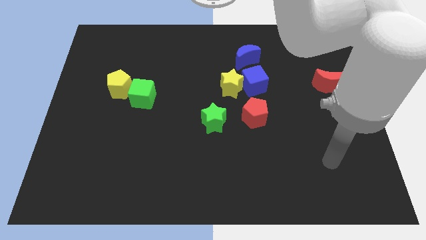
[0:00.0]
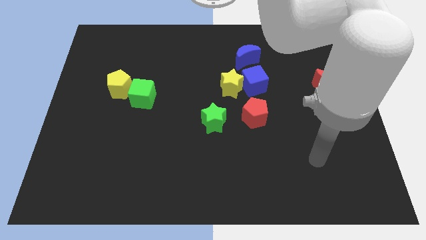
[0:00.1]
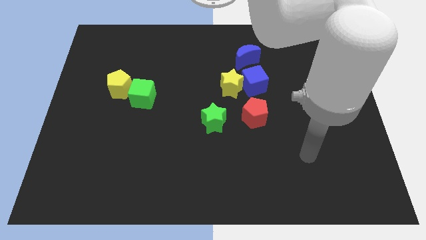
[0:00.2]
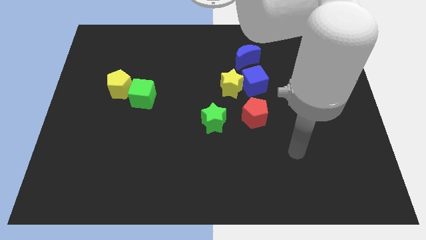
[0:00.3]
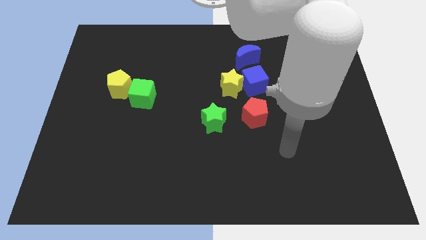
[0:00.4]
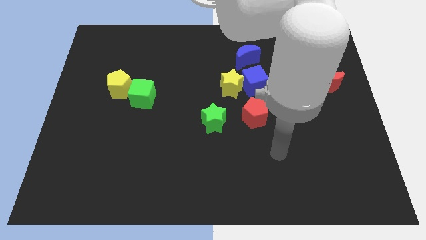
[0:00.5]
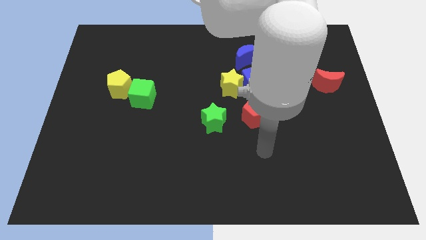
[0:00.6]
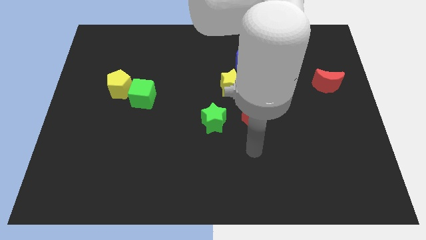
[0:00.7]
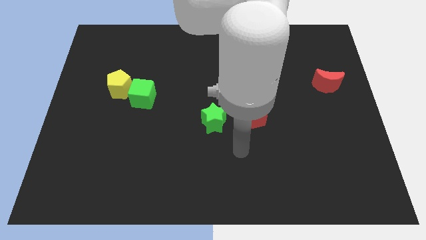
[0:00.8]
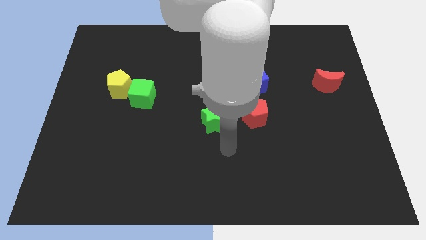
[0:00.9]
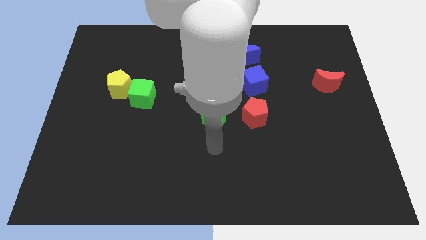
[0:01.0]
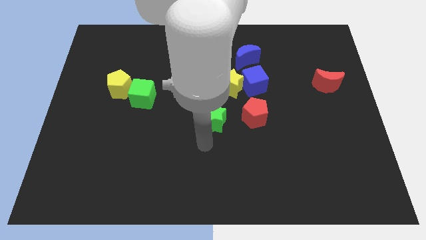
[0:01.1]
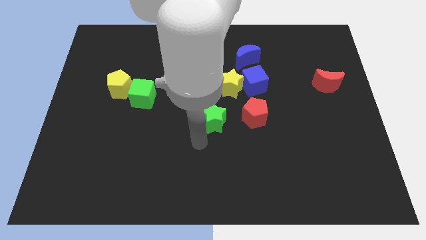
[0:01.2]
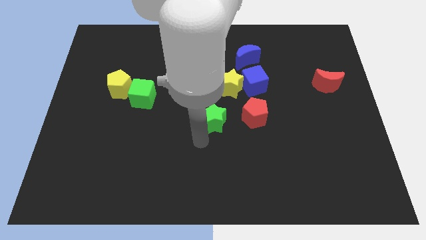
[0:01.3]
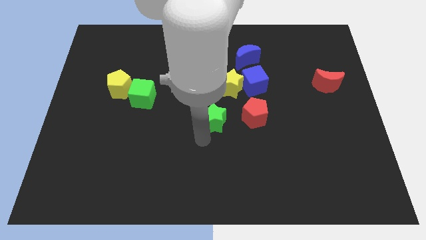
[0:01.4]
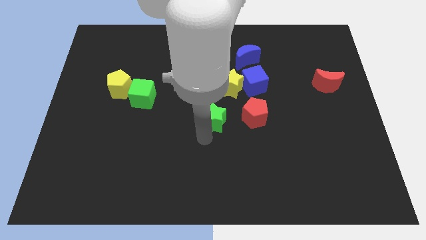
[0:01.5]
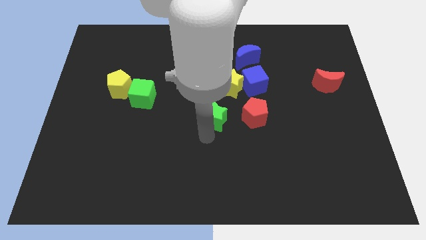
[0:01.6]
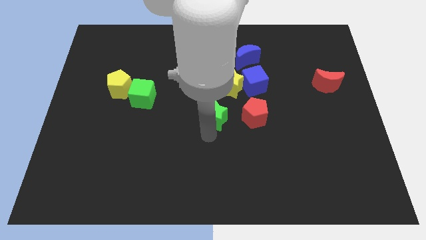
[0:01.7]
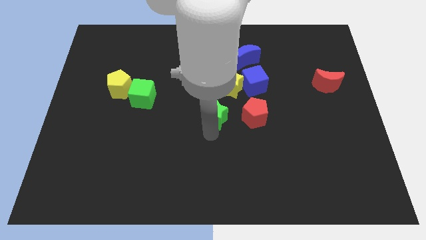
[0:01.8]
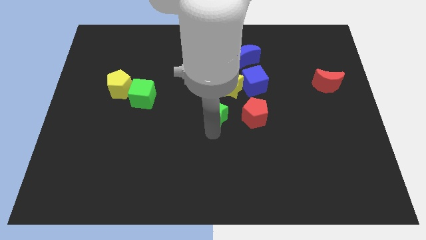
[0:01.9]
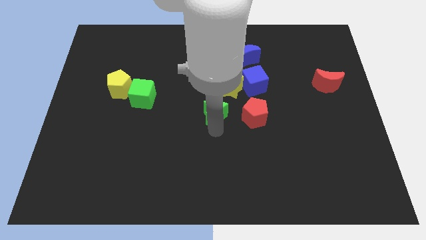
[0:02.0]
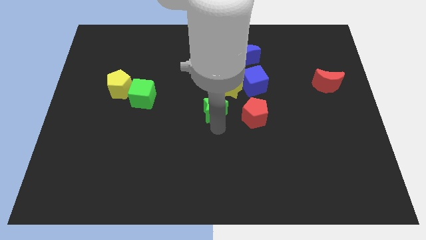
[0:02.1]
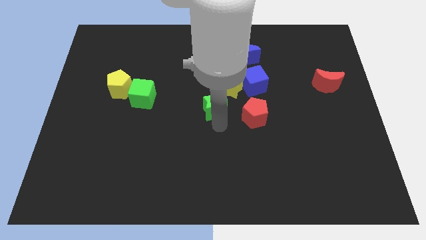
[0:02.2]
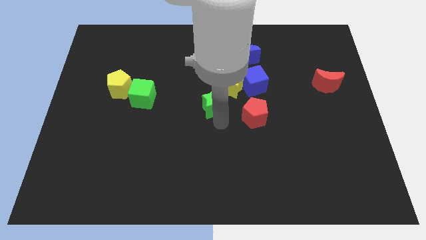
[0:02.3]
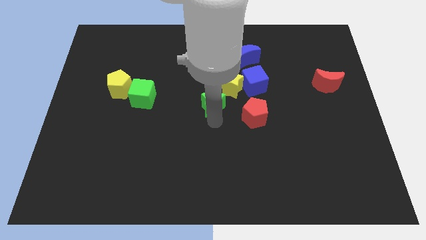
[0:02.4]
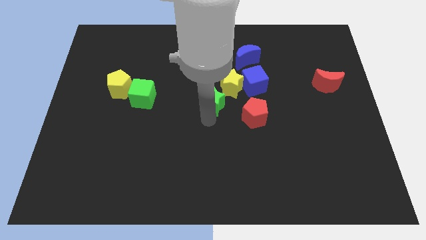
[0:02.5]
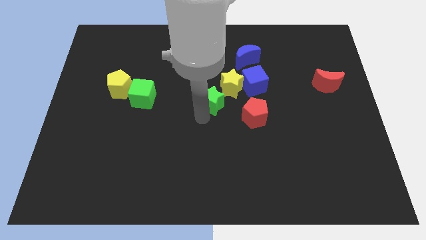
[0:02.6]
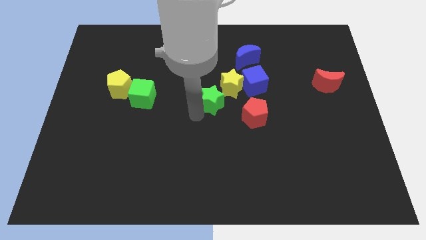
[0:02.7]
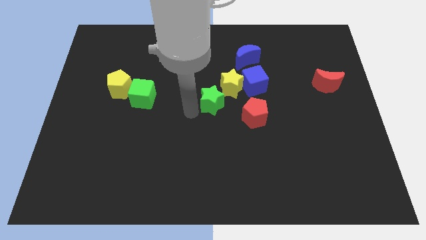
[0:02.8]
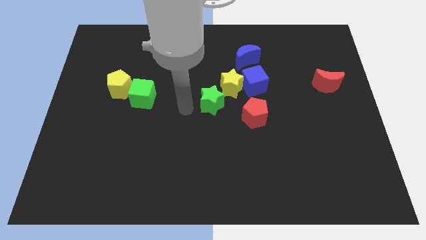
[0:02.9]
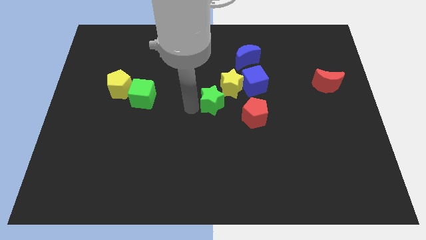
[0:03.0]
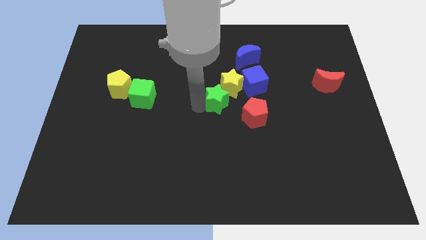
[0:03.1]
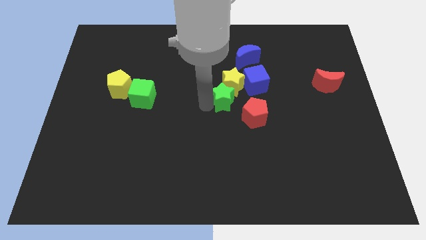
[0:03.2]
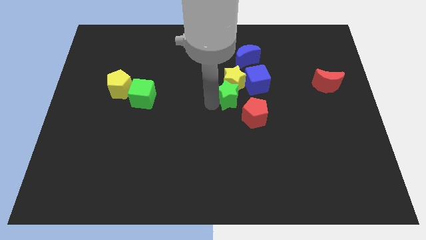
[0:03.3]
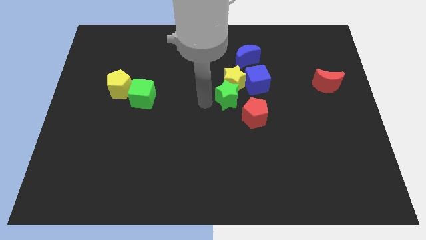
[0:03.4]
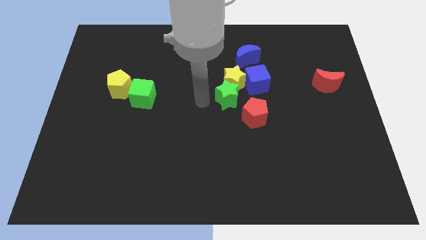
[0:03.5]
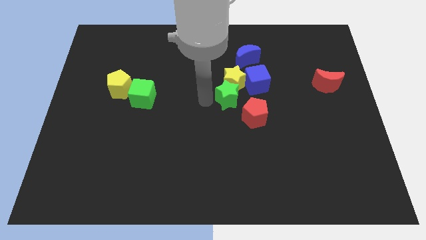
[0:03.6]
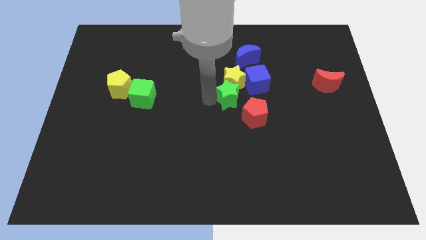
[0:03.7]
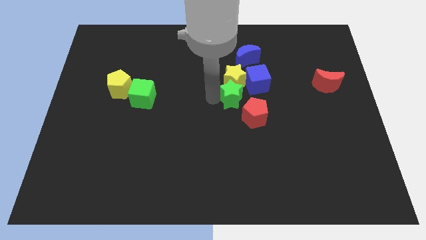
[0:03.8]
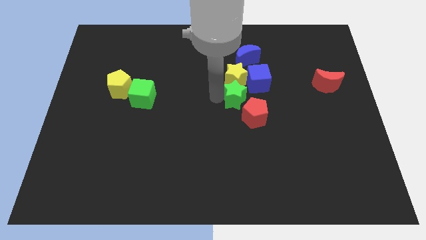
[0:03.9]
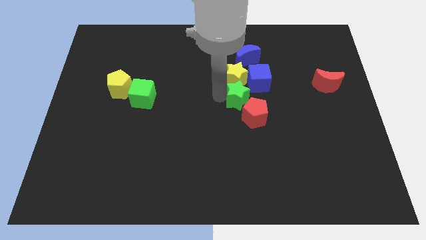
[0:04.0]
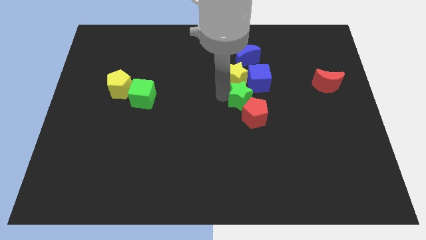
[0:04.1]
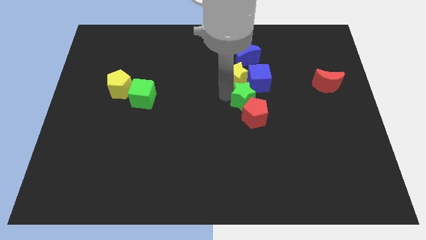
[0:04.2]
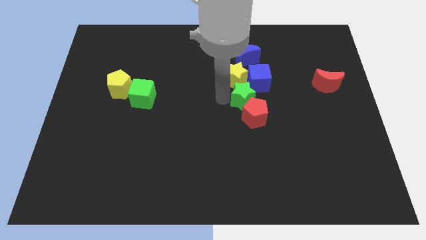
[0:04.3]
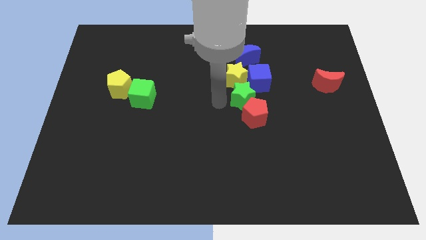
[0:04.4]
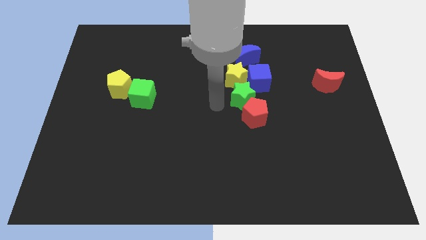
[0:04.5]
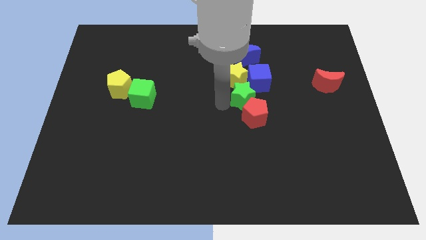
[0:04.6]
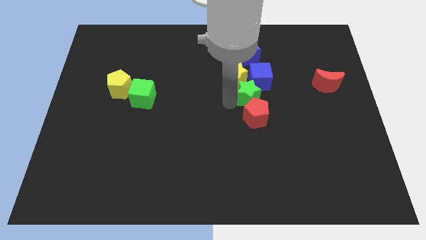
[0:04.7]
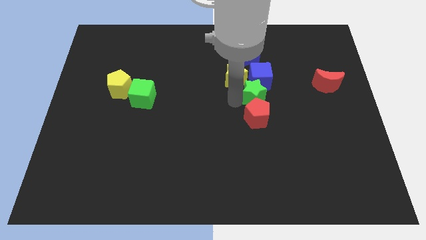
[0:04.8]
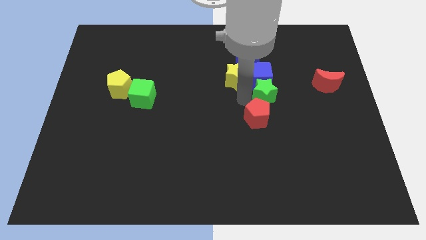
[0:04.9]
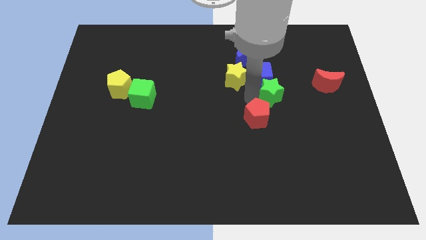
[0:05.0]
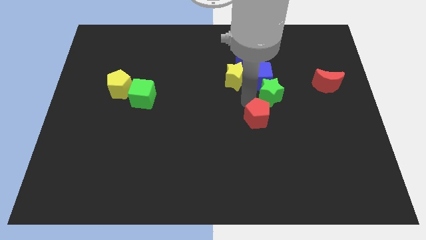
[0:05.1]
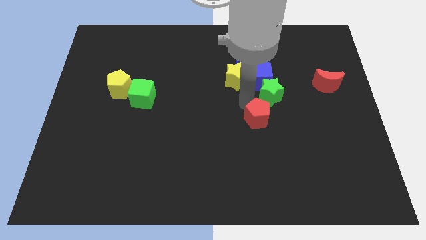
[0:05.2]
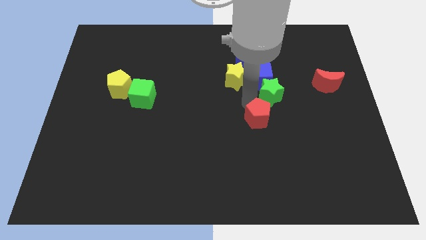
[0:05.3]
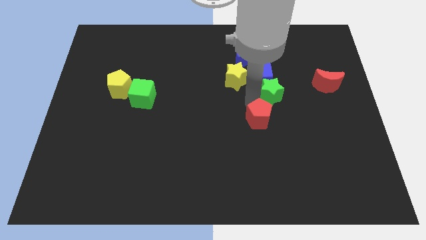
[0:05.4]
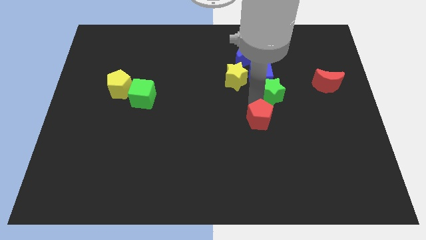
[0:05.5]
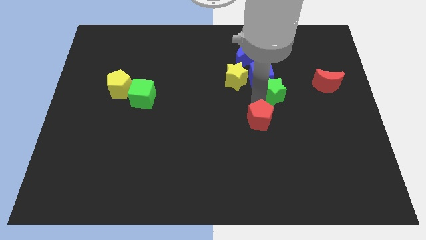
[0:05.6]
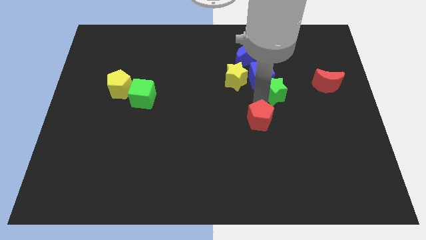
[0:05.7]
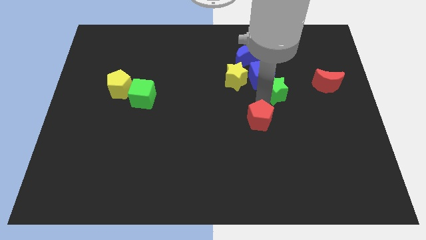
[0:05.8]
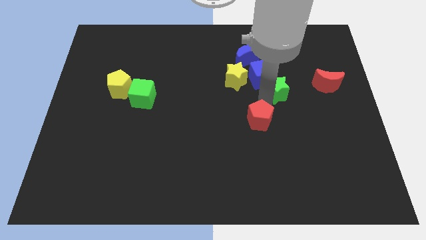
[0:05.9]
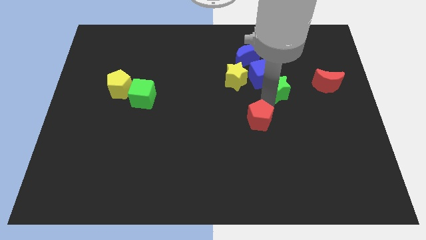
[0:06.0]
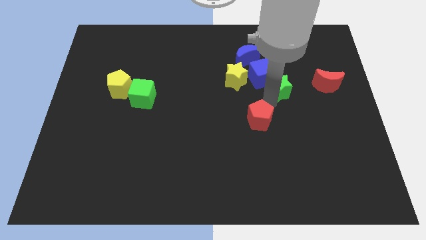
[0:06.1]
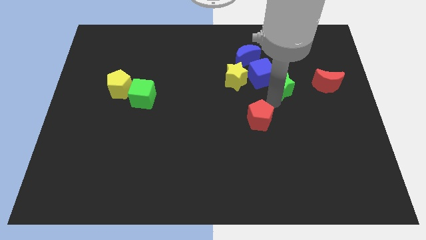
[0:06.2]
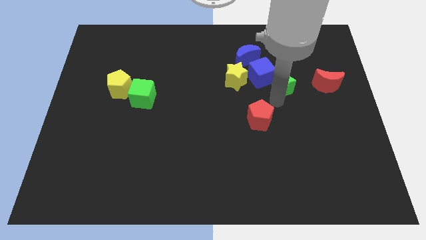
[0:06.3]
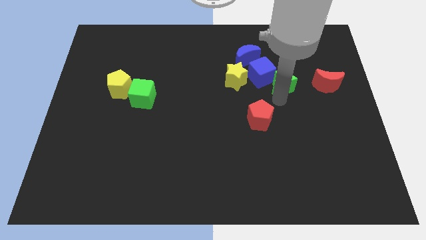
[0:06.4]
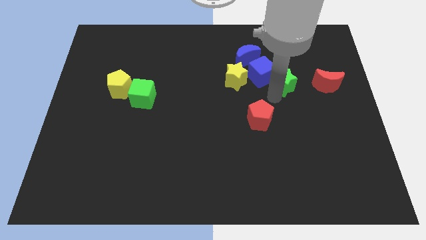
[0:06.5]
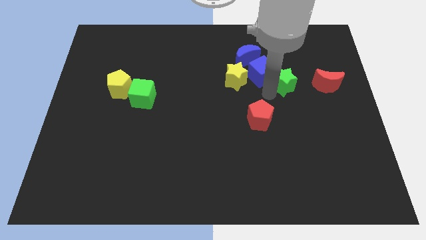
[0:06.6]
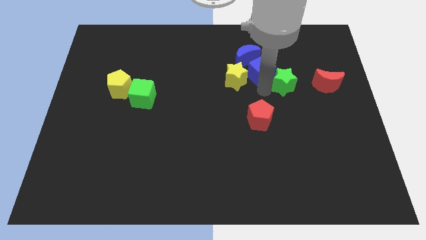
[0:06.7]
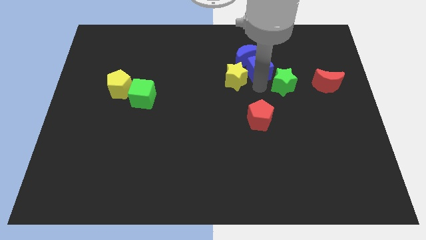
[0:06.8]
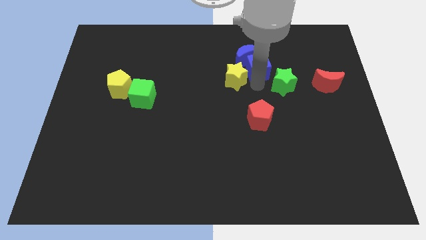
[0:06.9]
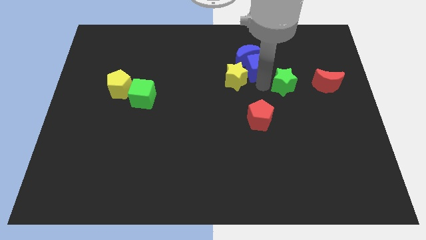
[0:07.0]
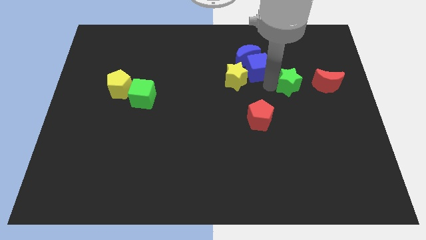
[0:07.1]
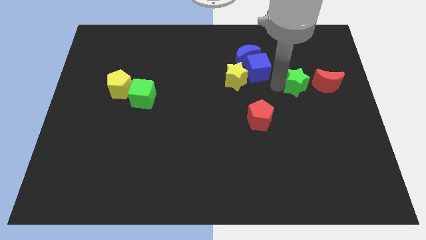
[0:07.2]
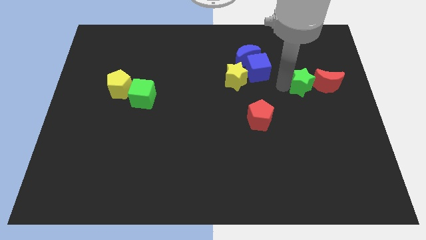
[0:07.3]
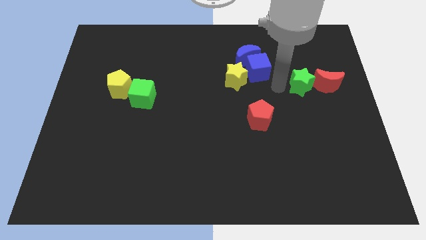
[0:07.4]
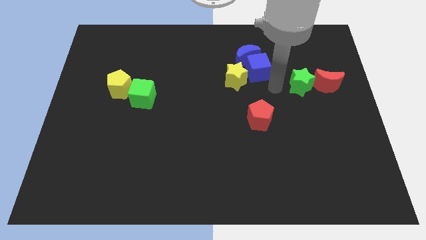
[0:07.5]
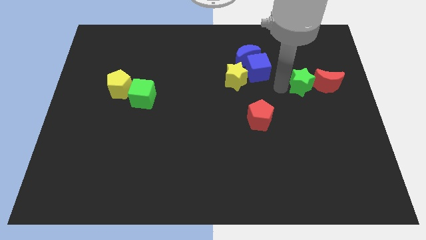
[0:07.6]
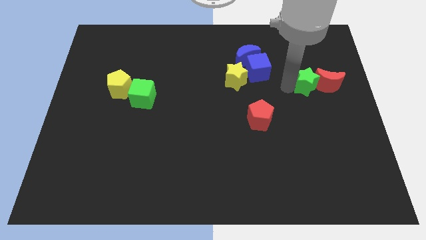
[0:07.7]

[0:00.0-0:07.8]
slide the green star towards the red moon
